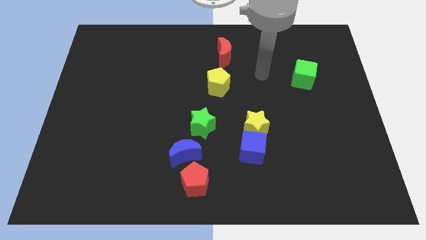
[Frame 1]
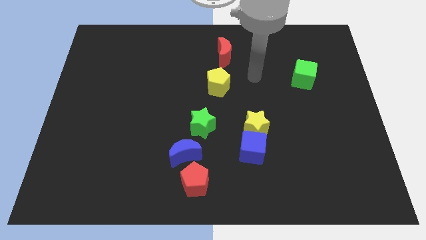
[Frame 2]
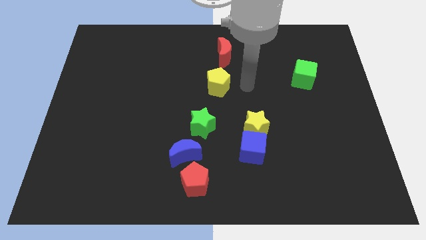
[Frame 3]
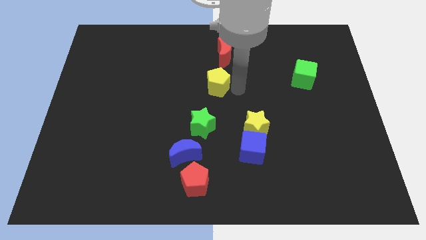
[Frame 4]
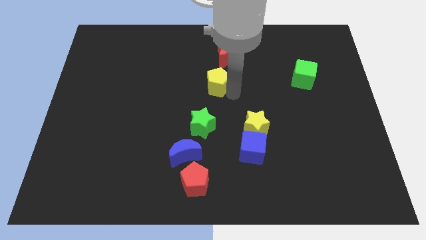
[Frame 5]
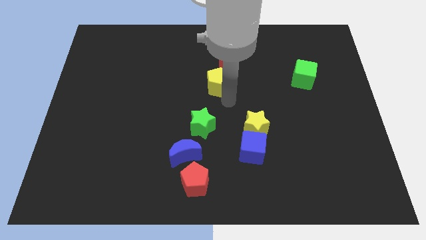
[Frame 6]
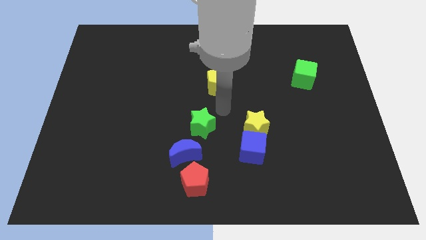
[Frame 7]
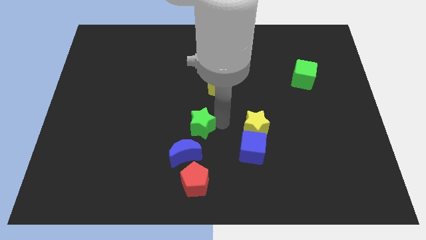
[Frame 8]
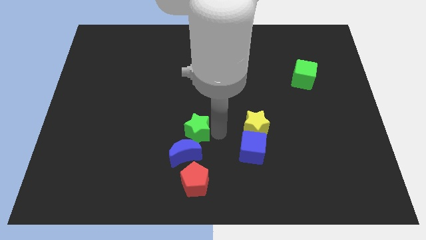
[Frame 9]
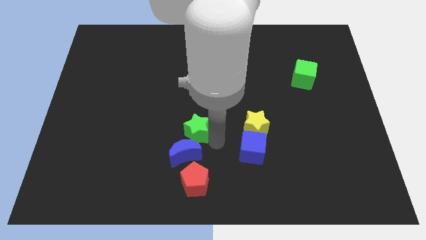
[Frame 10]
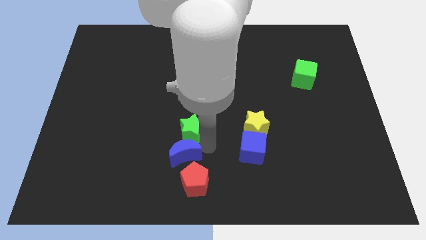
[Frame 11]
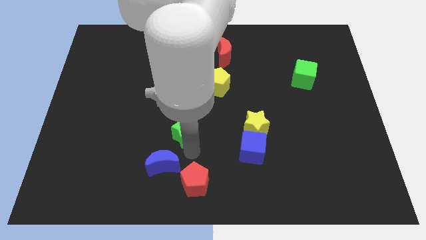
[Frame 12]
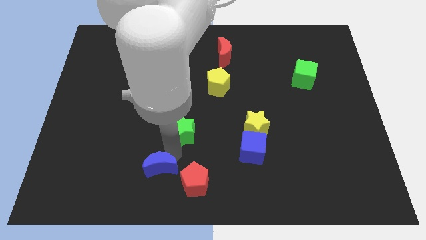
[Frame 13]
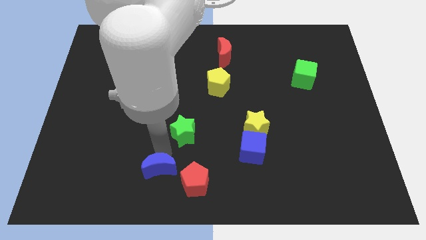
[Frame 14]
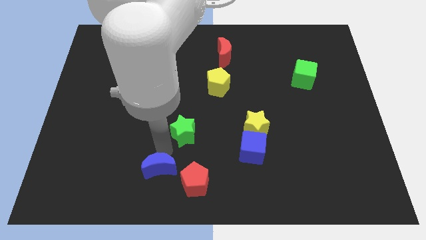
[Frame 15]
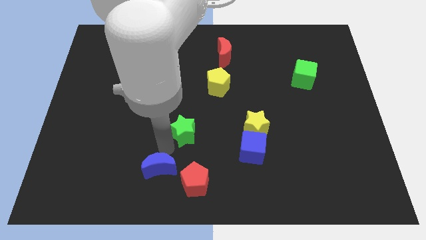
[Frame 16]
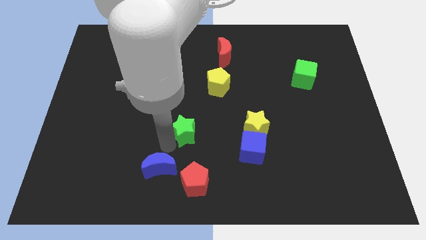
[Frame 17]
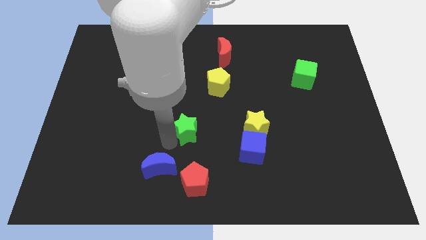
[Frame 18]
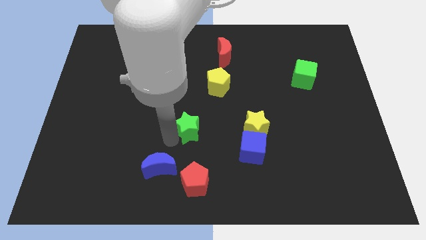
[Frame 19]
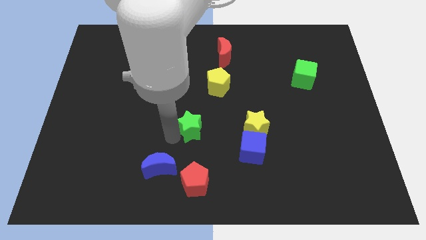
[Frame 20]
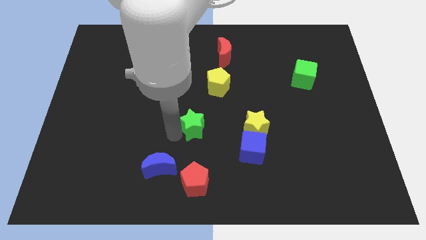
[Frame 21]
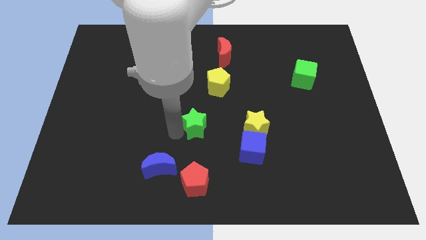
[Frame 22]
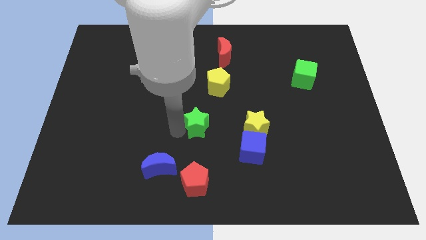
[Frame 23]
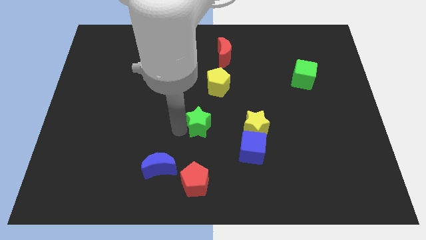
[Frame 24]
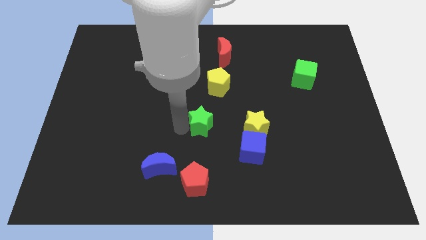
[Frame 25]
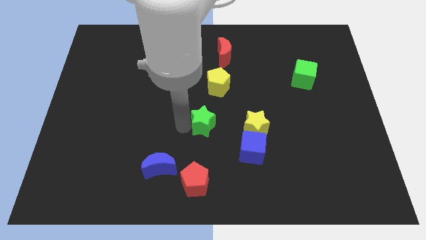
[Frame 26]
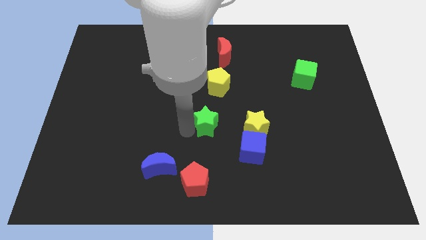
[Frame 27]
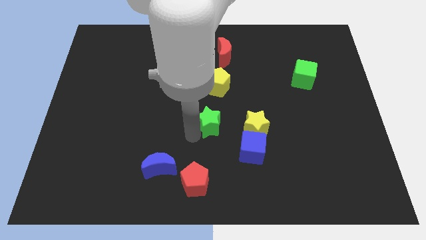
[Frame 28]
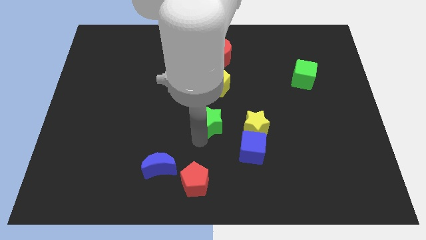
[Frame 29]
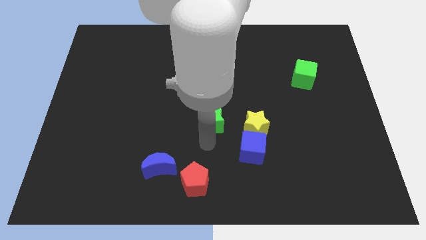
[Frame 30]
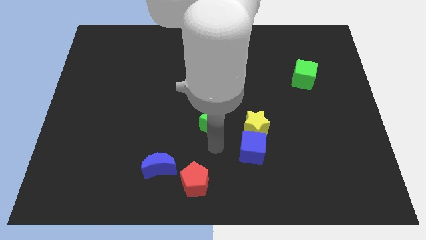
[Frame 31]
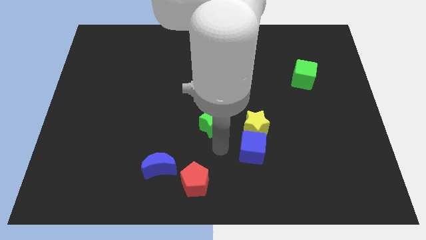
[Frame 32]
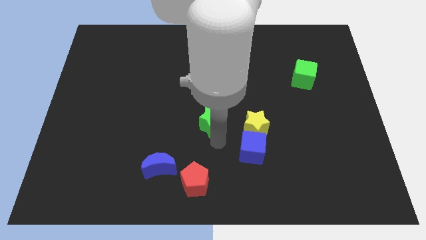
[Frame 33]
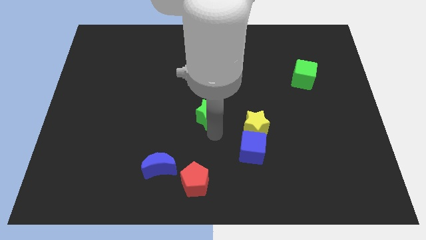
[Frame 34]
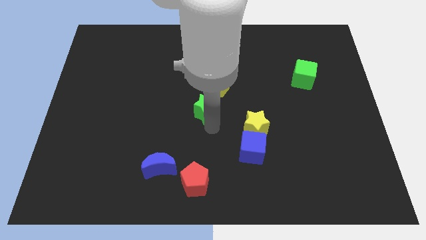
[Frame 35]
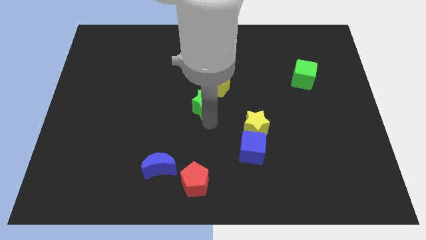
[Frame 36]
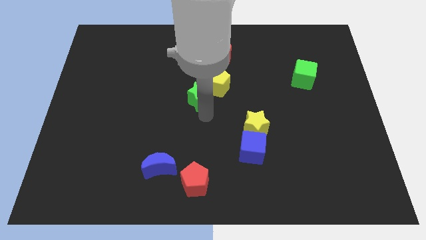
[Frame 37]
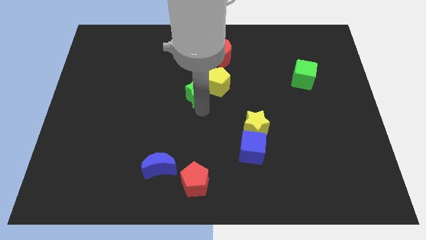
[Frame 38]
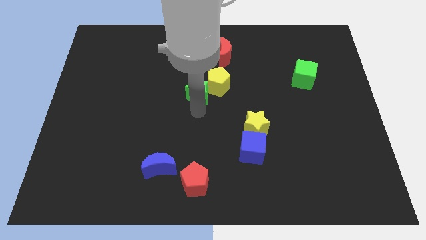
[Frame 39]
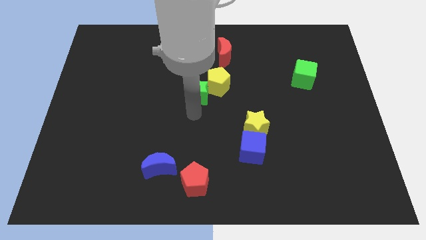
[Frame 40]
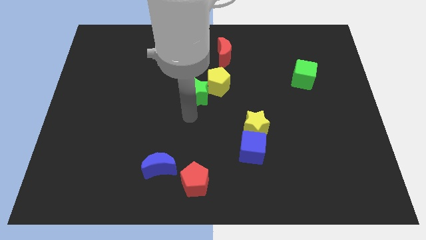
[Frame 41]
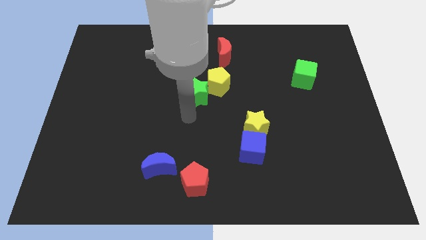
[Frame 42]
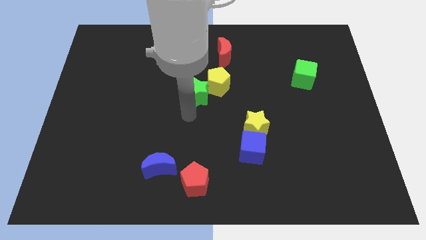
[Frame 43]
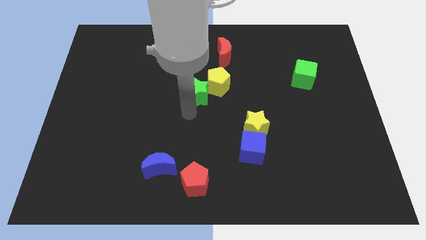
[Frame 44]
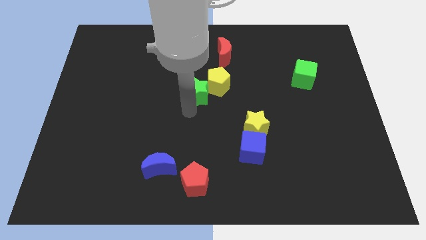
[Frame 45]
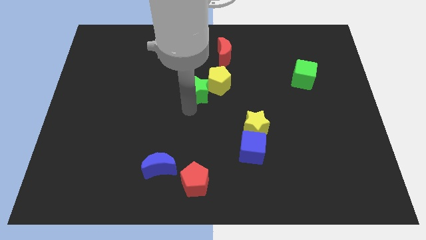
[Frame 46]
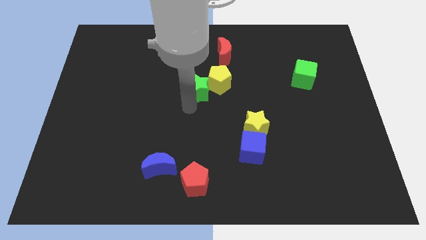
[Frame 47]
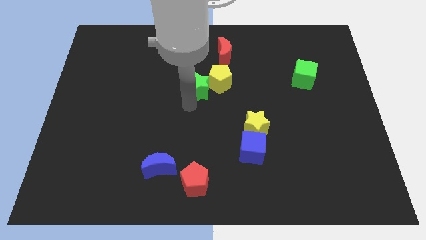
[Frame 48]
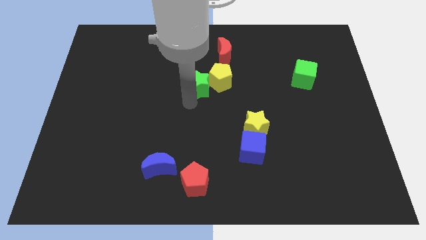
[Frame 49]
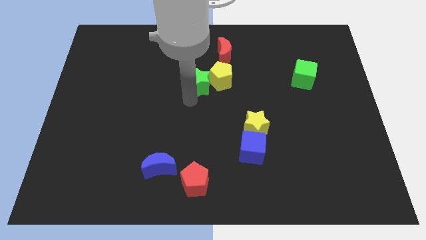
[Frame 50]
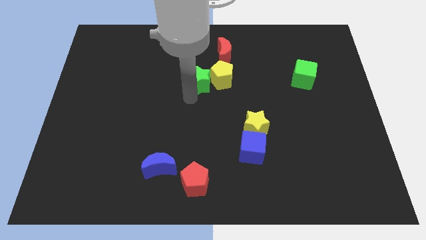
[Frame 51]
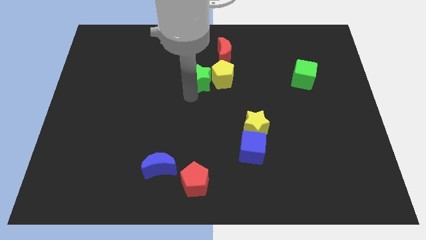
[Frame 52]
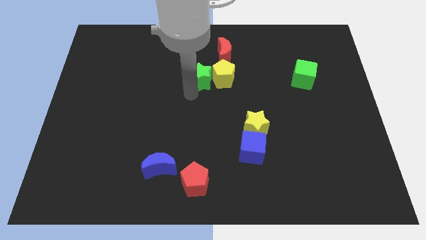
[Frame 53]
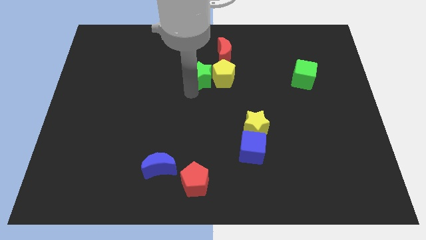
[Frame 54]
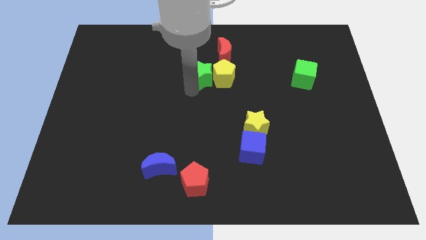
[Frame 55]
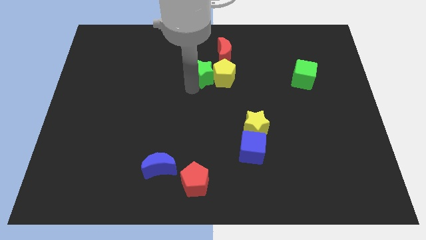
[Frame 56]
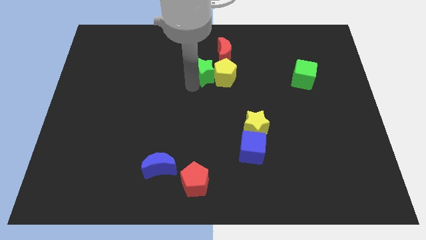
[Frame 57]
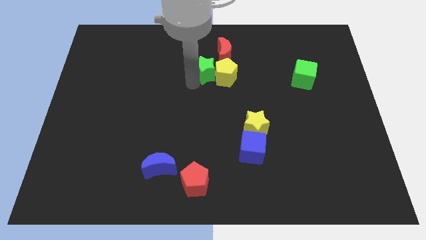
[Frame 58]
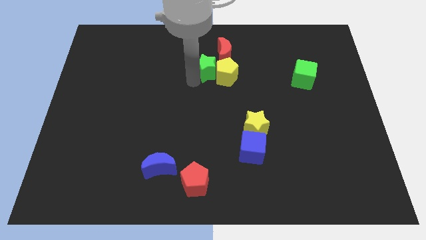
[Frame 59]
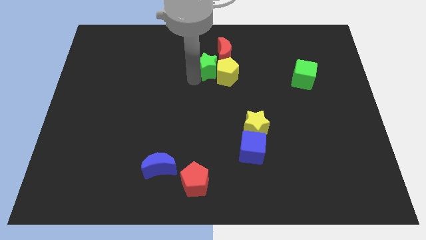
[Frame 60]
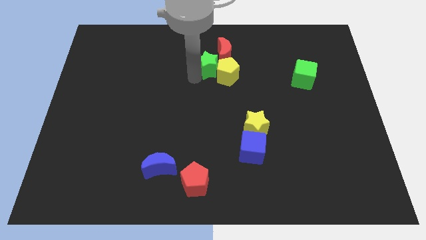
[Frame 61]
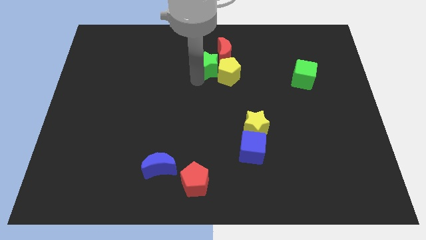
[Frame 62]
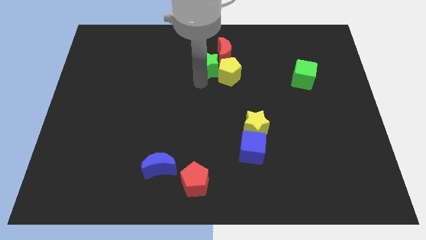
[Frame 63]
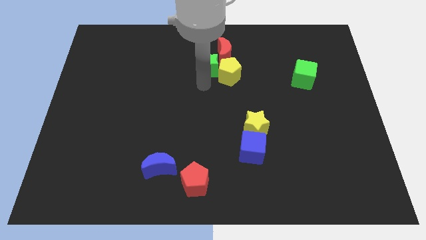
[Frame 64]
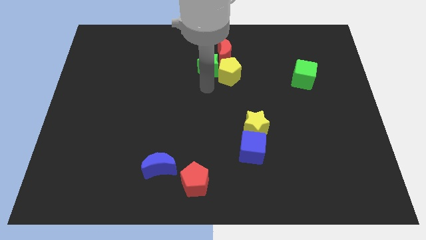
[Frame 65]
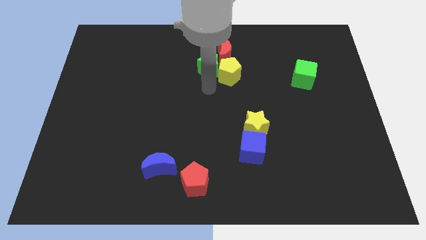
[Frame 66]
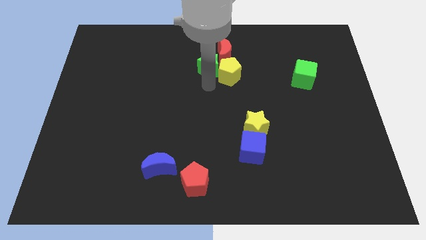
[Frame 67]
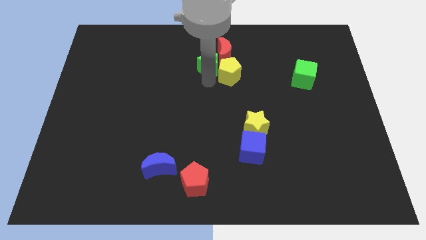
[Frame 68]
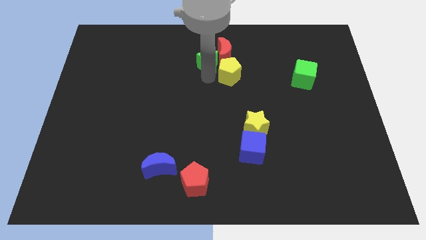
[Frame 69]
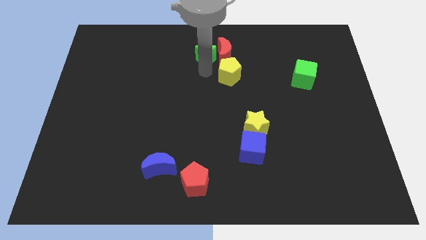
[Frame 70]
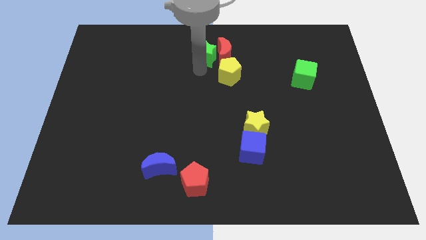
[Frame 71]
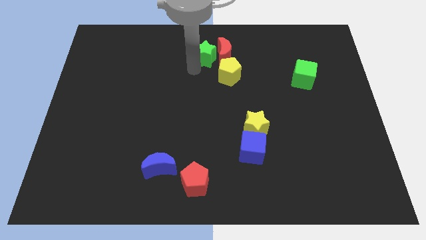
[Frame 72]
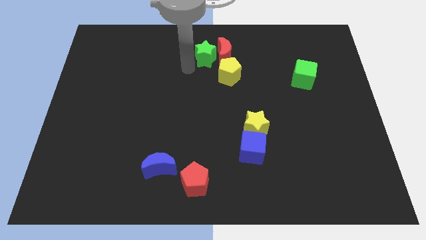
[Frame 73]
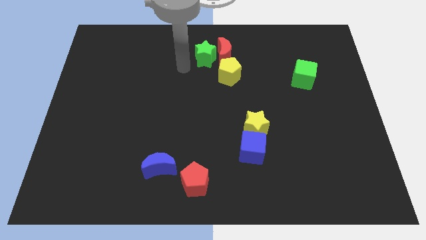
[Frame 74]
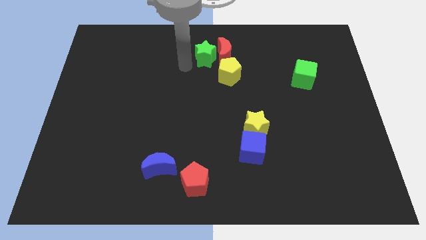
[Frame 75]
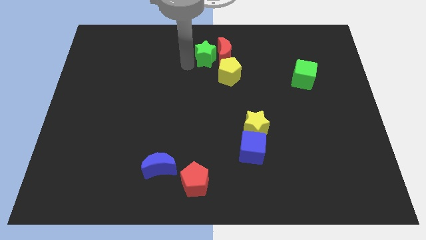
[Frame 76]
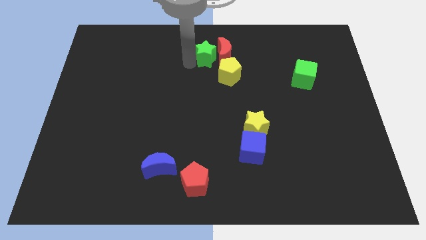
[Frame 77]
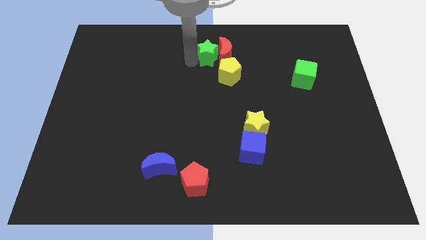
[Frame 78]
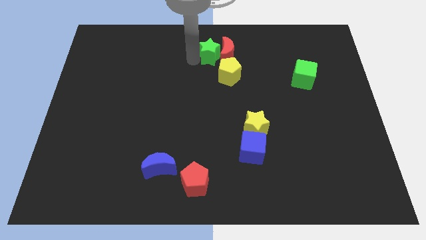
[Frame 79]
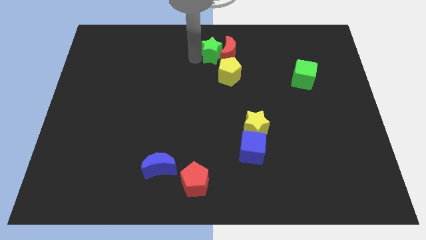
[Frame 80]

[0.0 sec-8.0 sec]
move the green star to the top of the yellow pentagon
